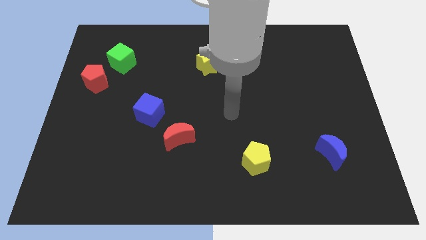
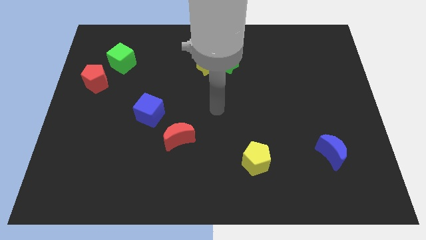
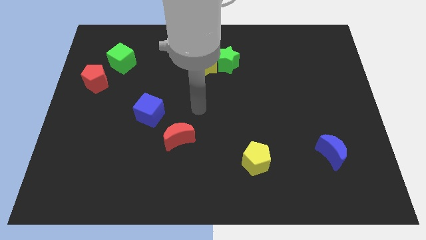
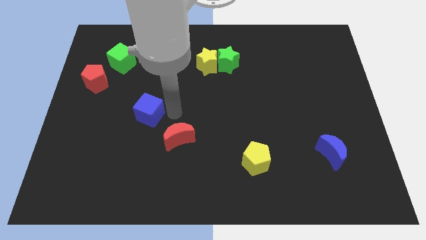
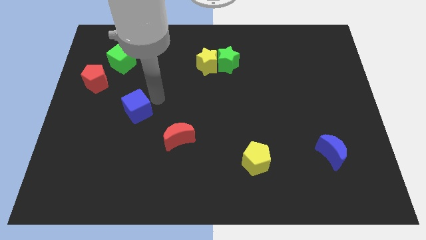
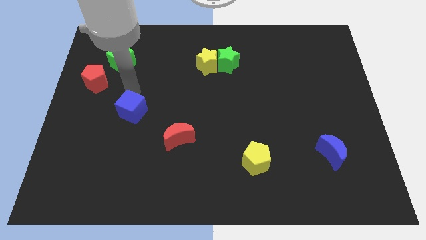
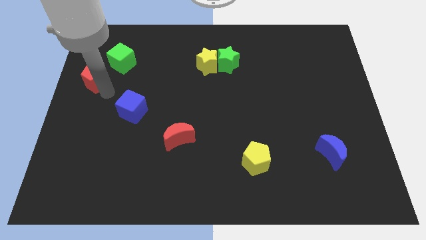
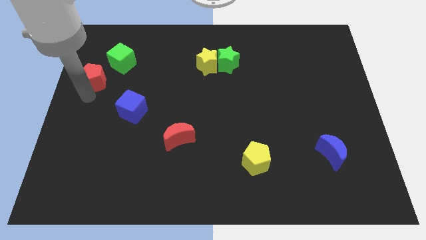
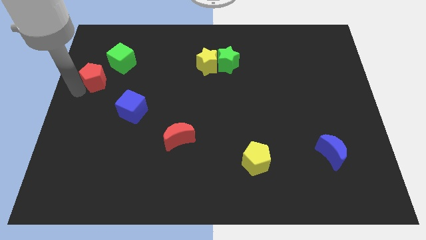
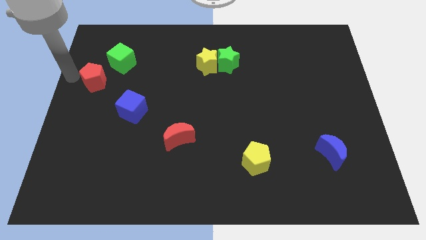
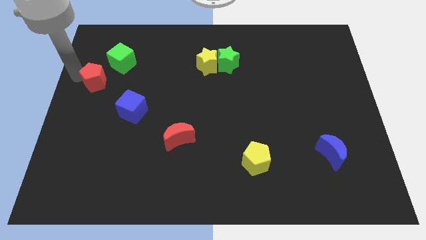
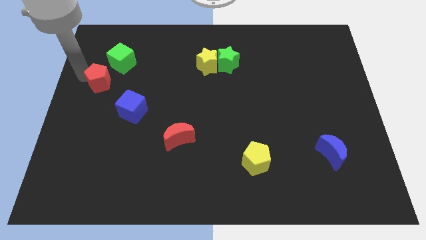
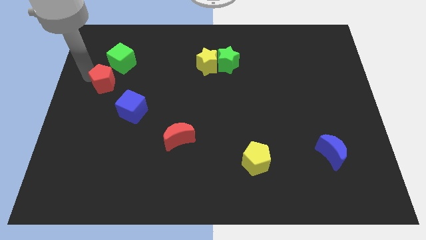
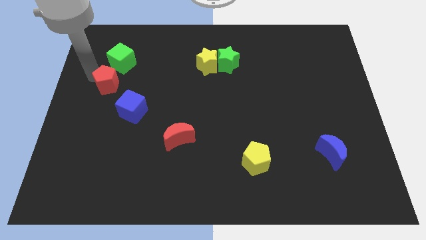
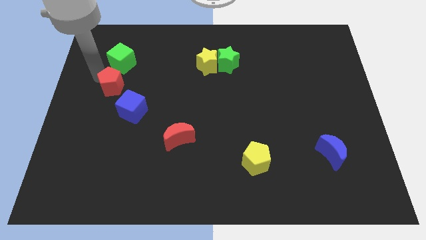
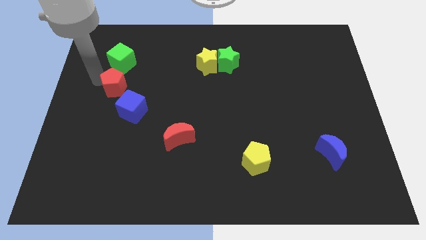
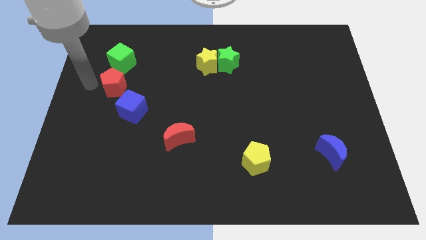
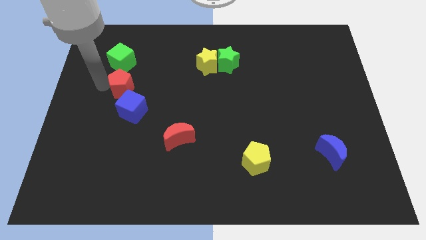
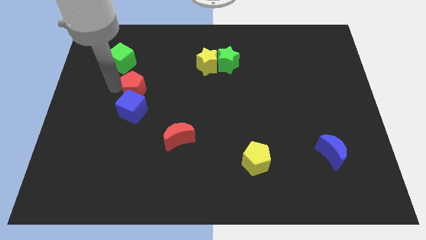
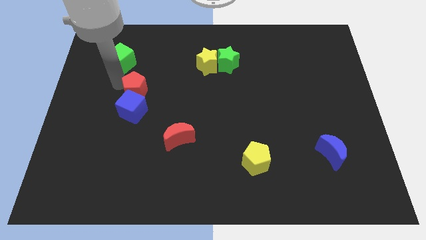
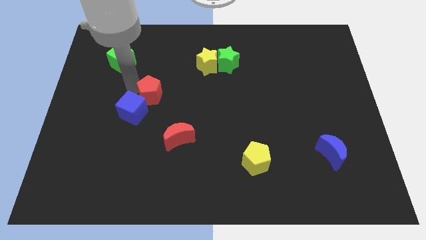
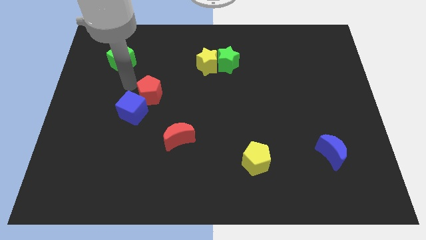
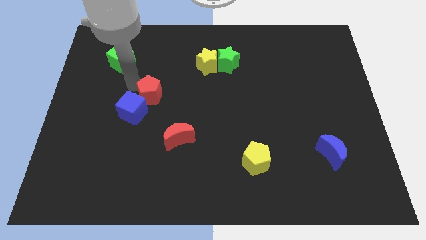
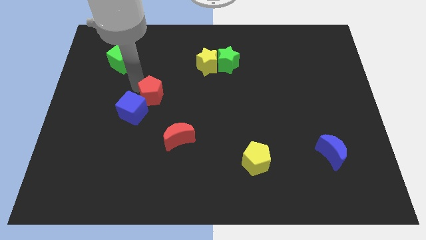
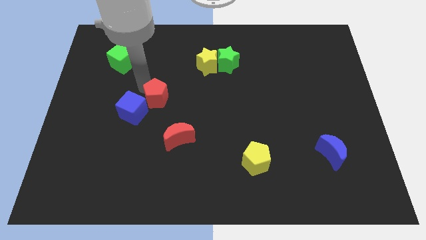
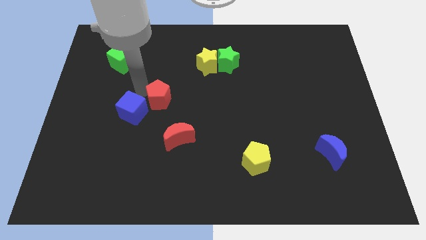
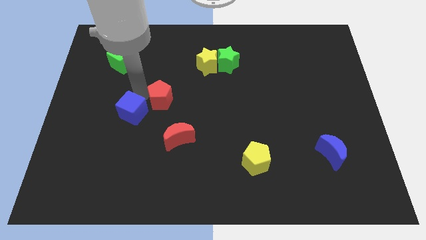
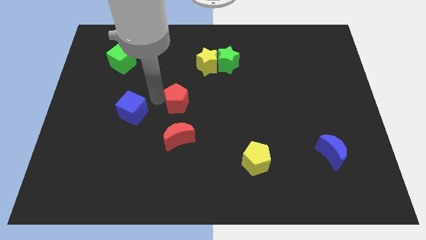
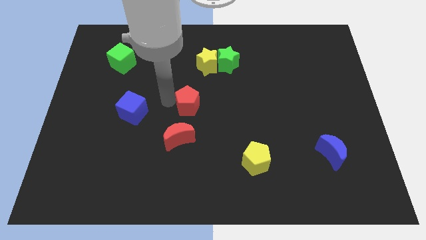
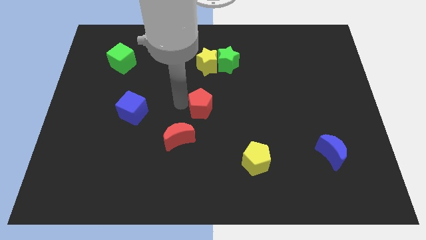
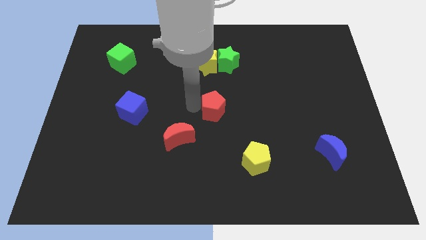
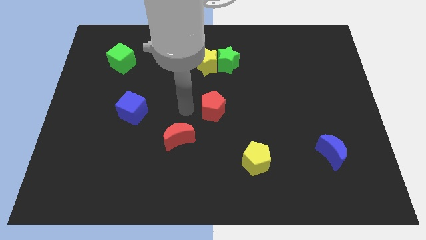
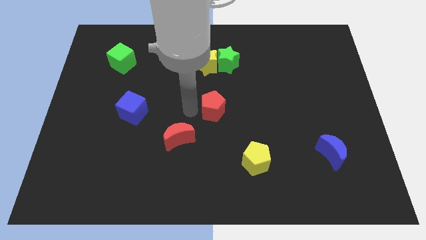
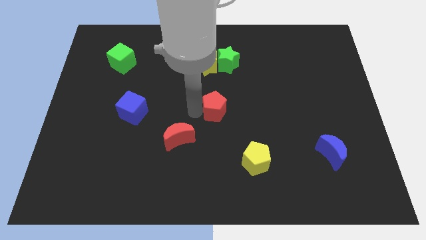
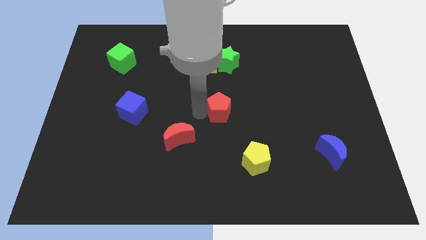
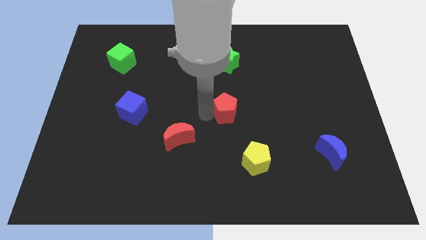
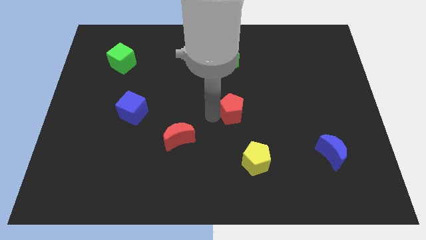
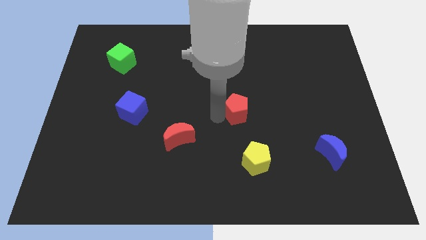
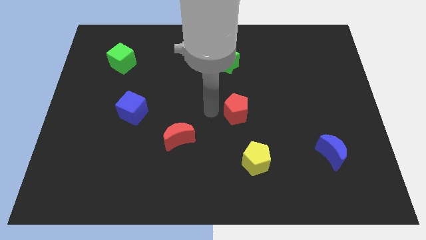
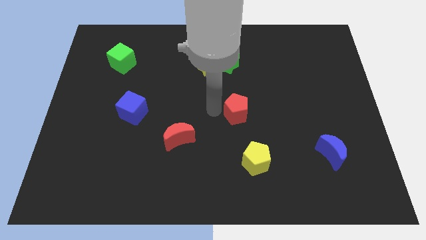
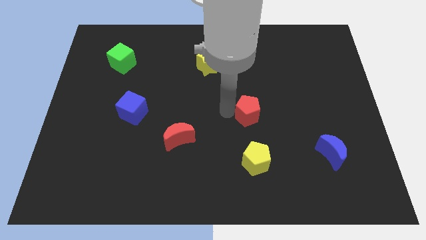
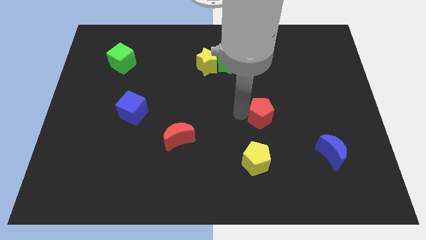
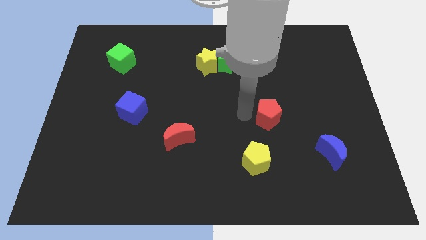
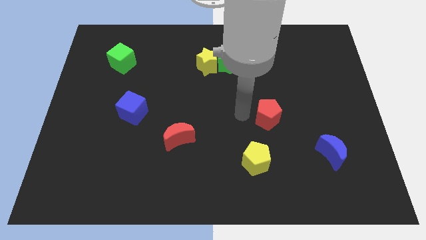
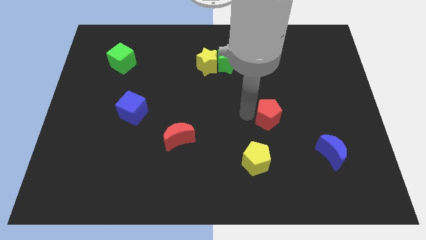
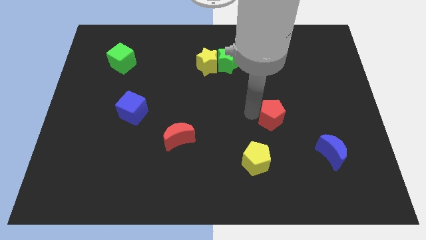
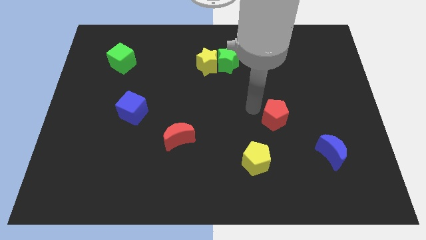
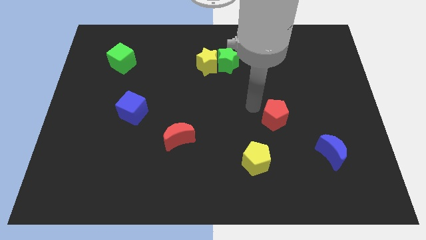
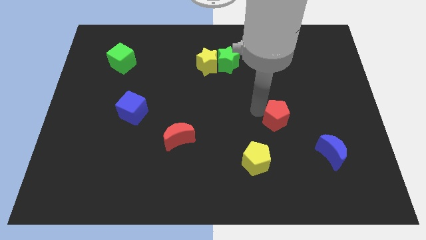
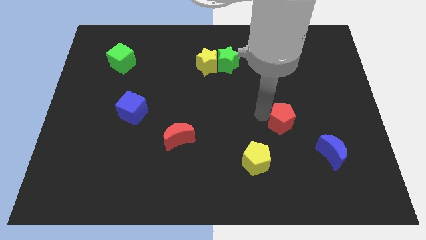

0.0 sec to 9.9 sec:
push the red pentagon to the top left of the blue moon

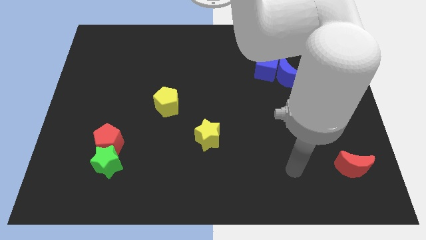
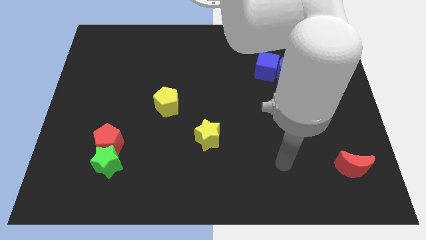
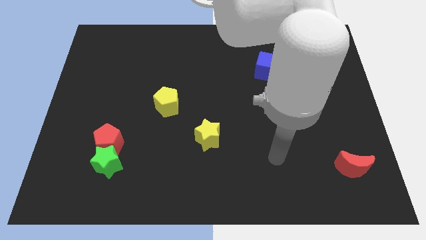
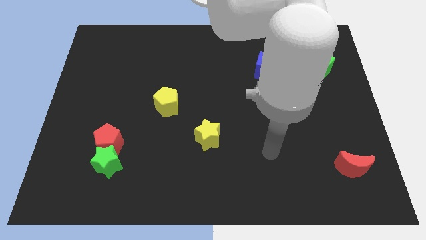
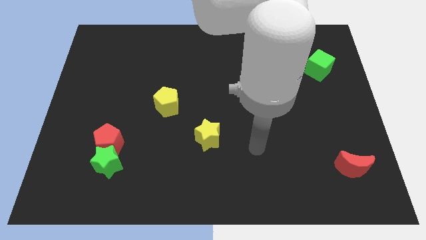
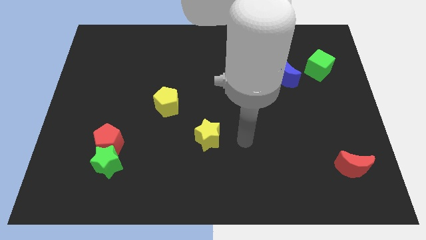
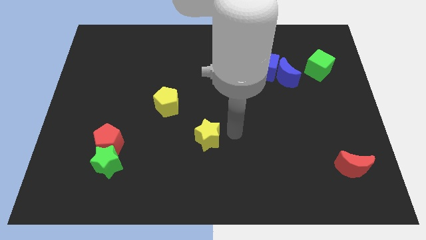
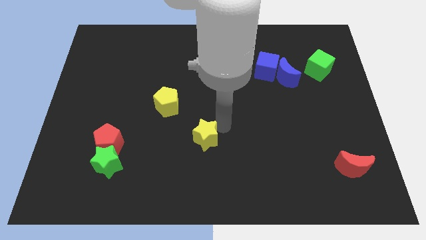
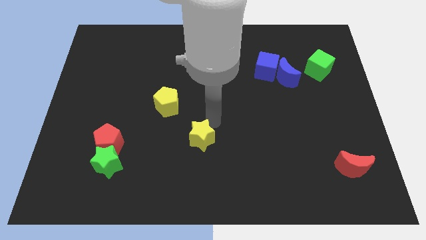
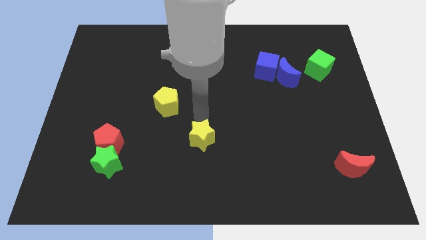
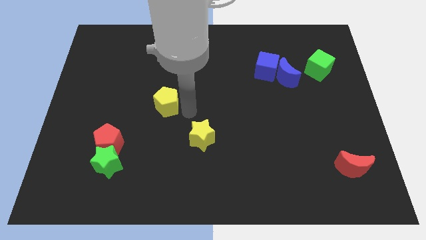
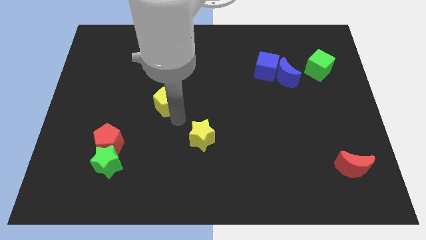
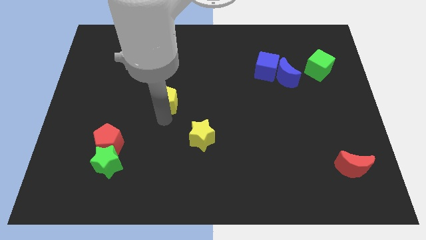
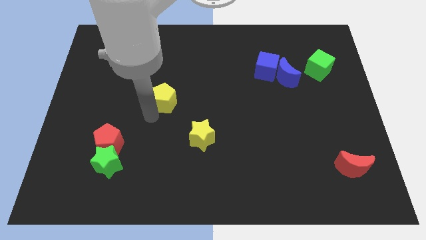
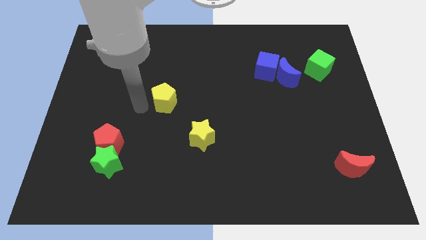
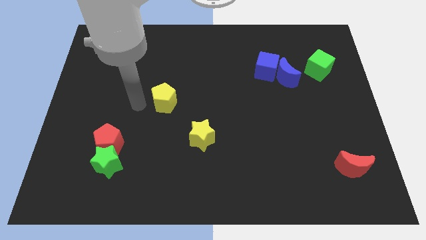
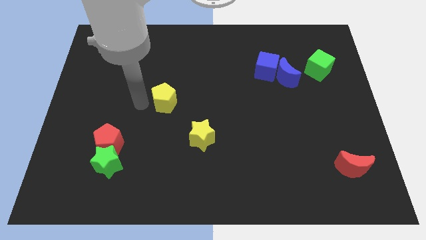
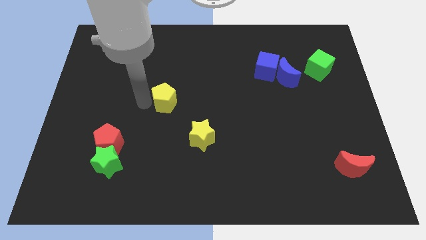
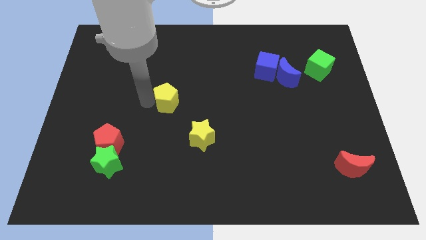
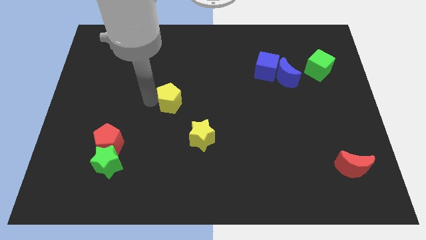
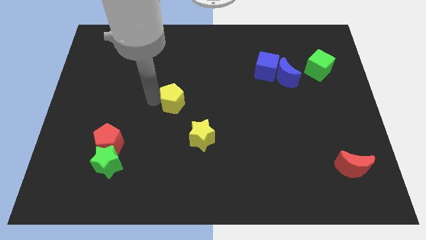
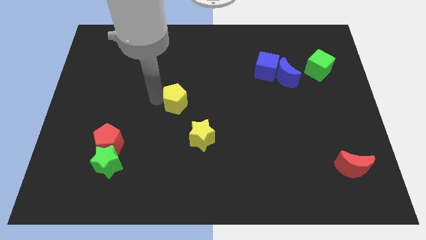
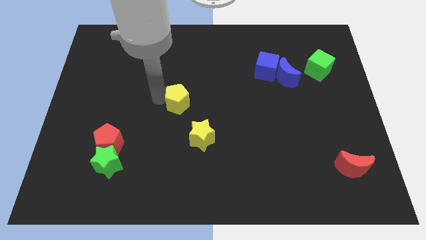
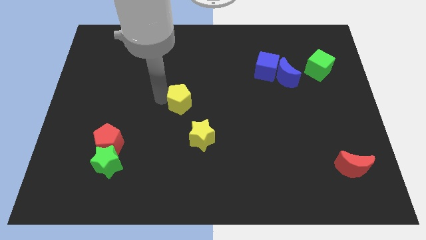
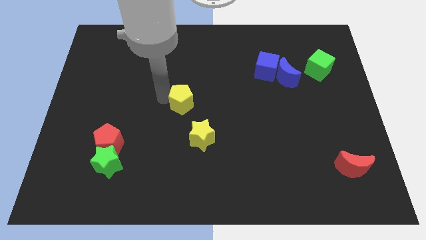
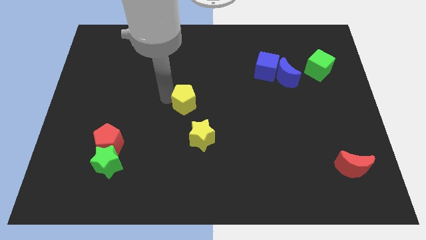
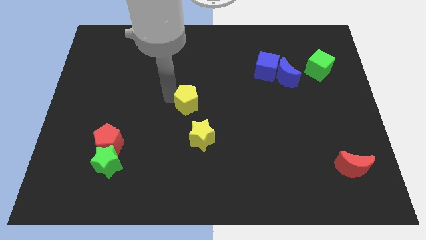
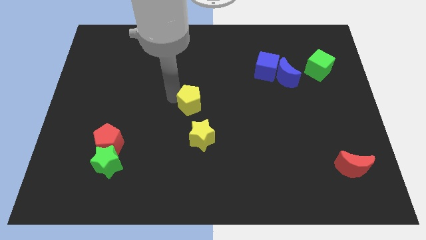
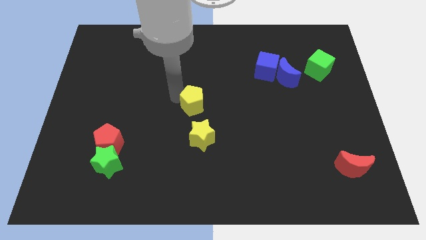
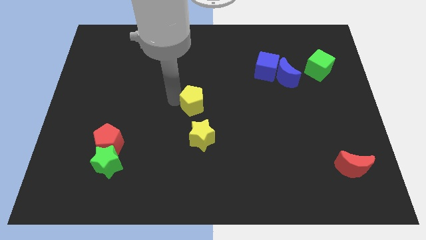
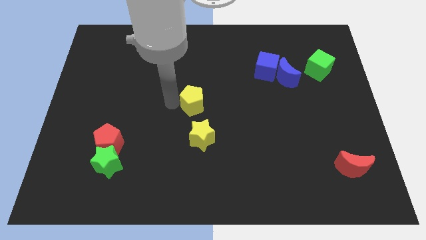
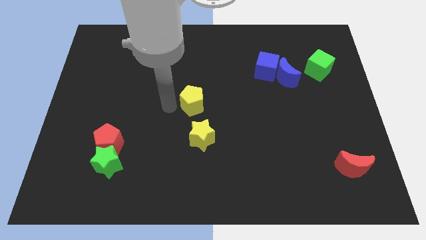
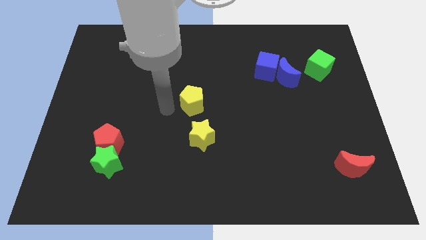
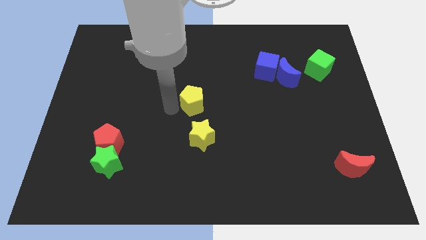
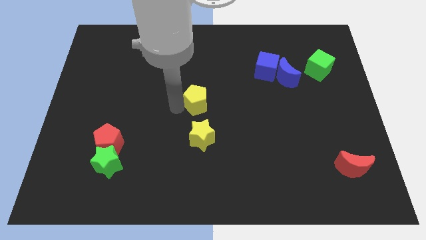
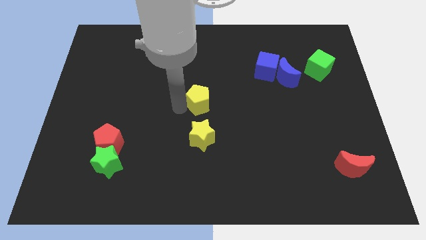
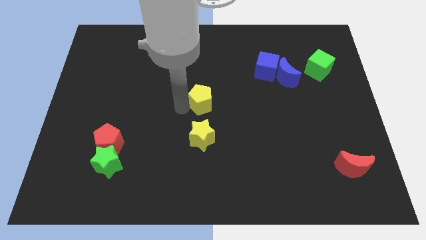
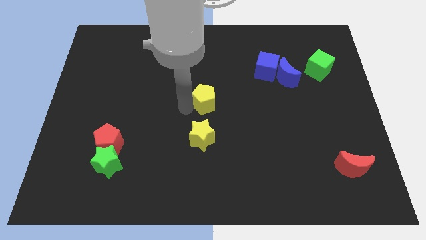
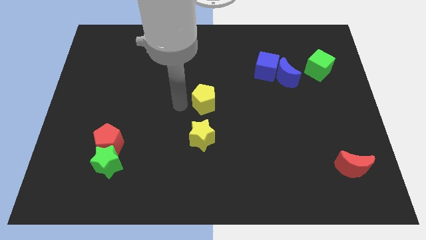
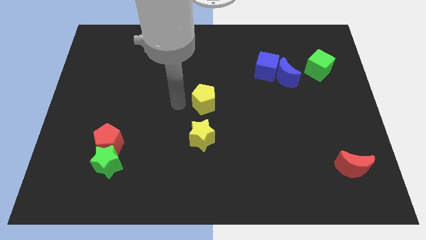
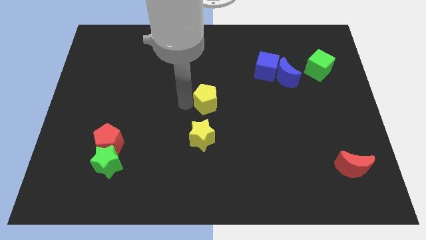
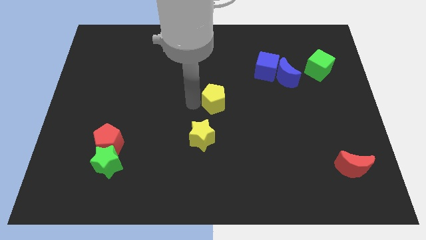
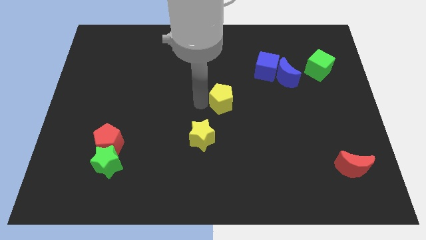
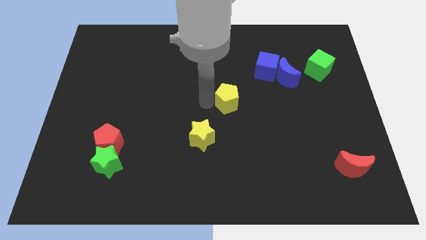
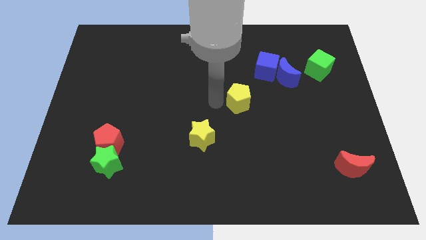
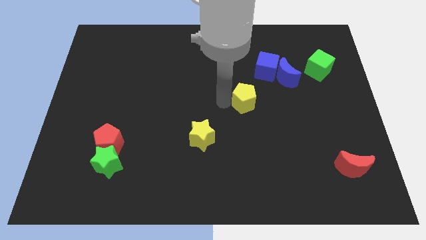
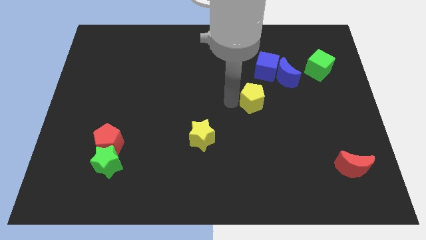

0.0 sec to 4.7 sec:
put the yellow pentagon to the bottom side of the blue cube
